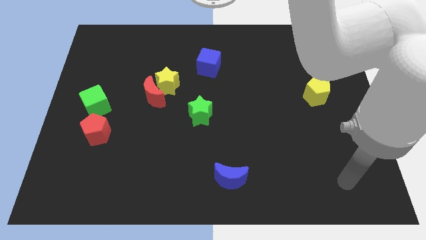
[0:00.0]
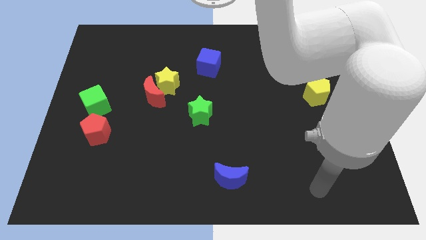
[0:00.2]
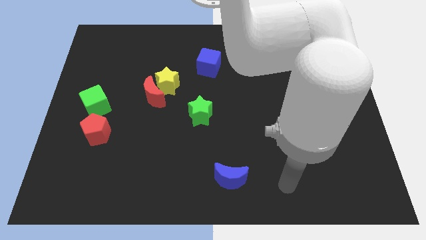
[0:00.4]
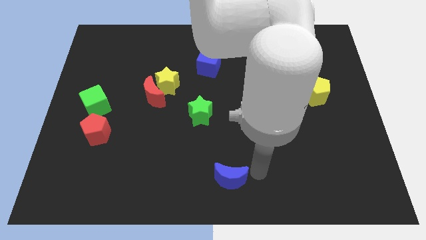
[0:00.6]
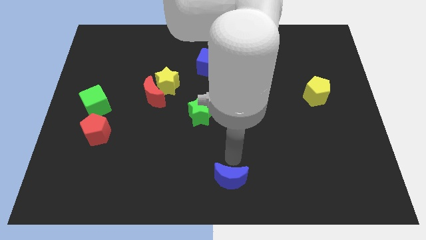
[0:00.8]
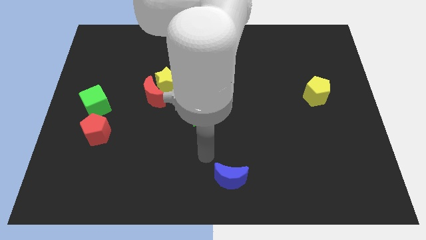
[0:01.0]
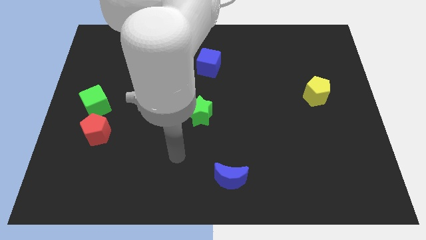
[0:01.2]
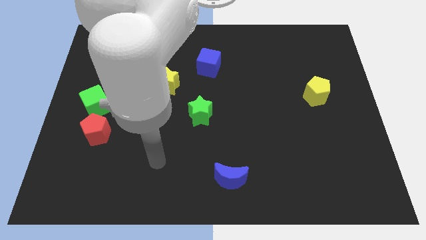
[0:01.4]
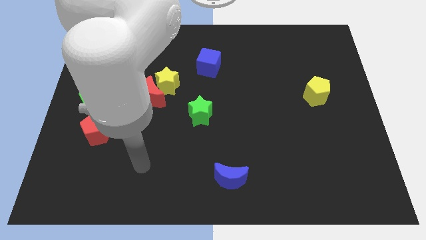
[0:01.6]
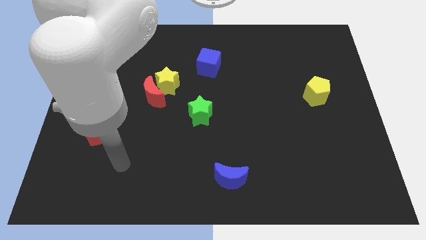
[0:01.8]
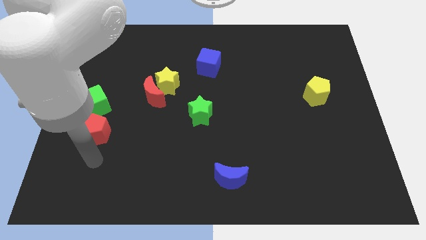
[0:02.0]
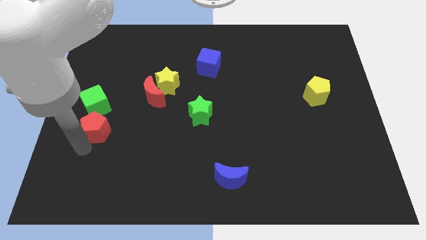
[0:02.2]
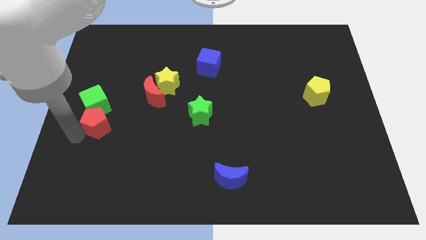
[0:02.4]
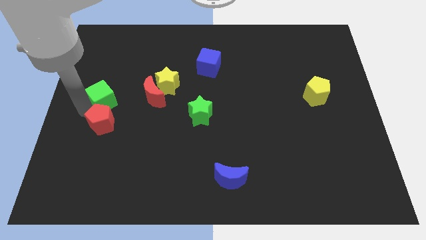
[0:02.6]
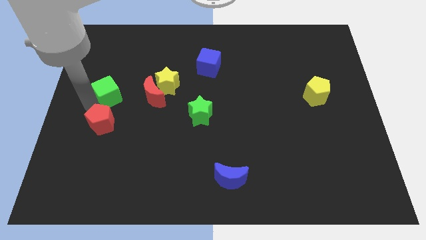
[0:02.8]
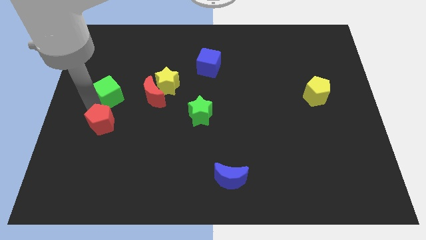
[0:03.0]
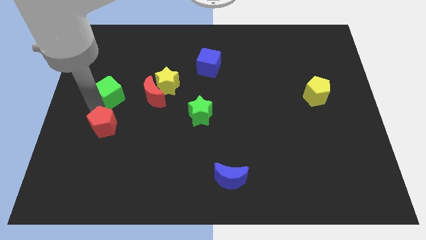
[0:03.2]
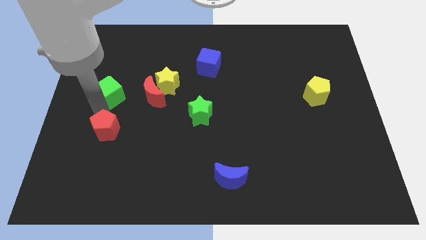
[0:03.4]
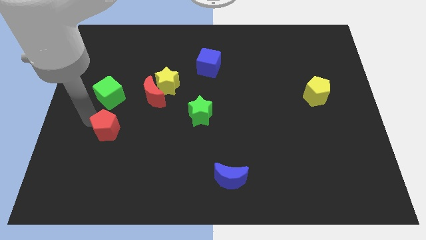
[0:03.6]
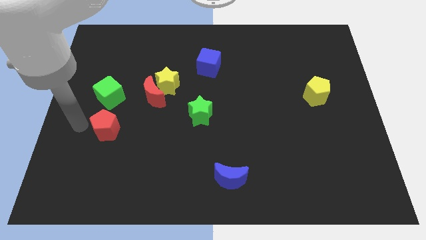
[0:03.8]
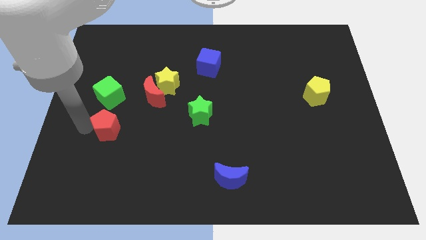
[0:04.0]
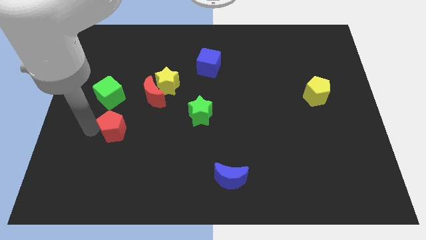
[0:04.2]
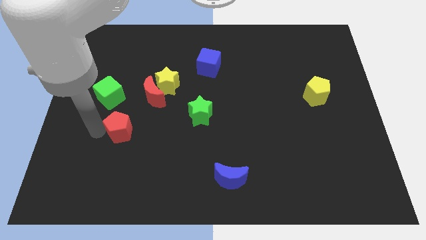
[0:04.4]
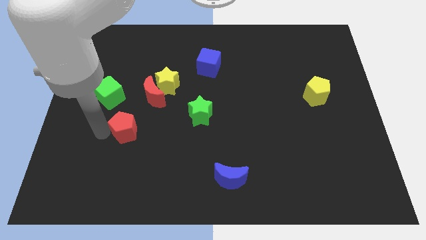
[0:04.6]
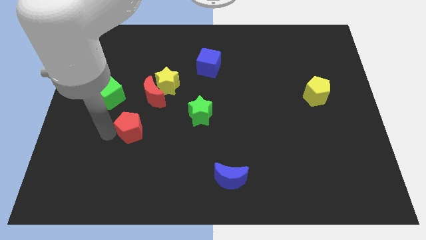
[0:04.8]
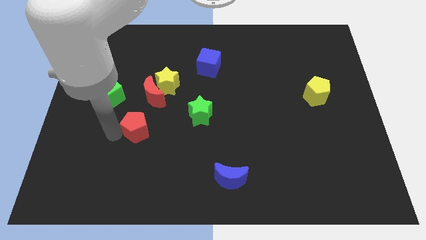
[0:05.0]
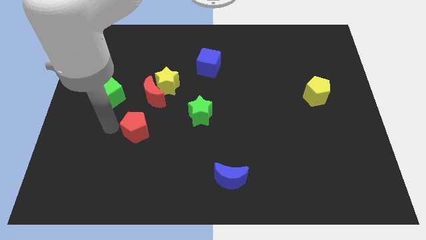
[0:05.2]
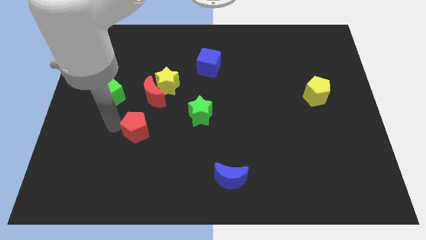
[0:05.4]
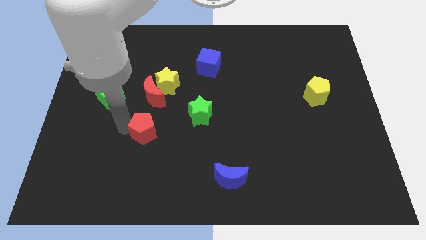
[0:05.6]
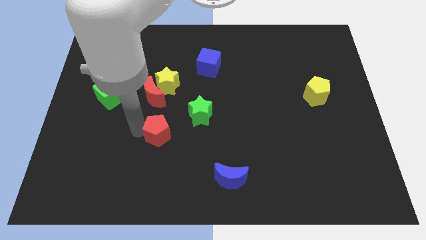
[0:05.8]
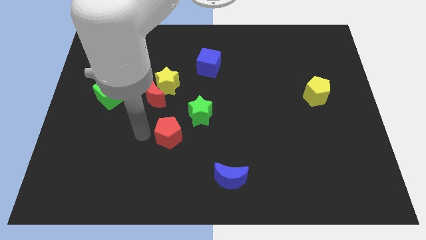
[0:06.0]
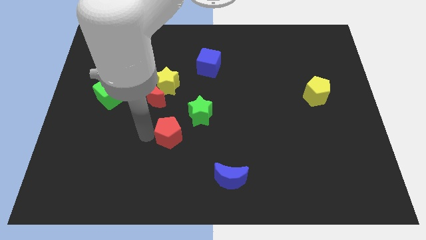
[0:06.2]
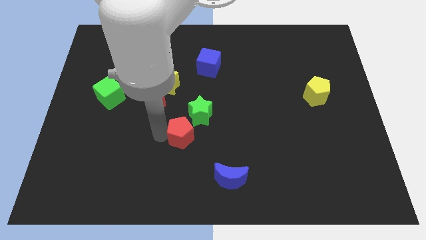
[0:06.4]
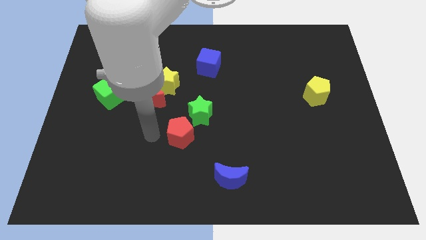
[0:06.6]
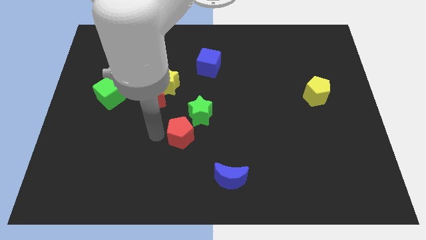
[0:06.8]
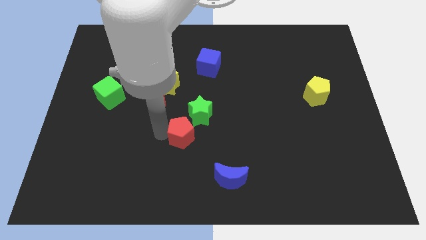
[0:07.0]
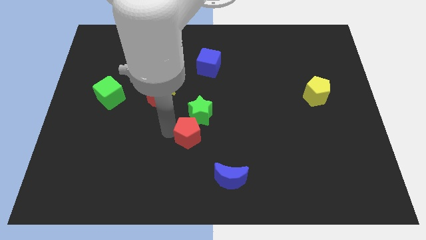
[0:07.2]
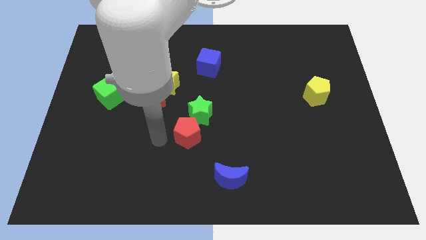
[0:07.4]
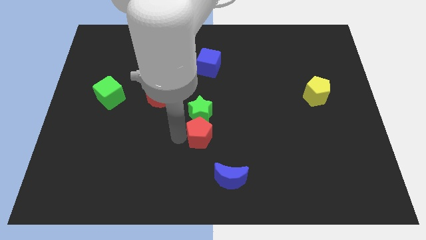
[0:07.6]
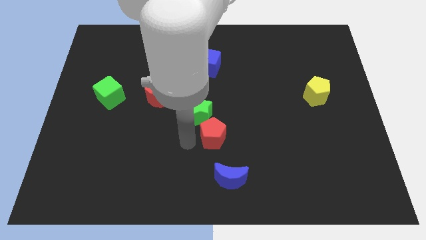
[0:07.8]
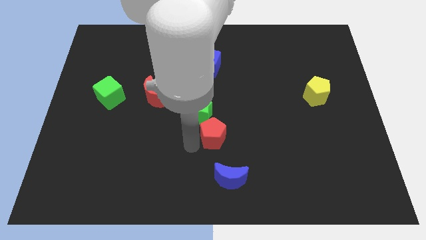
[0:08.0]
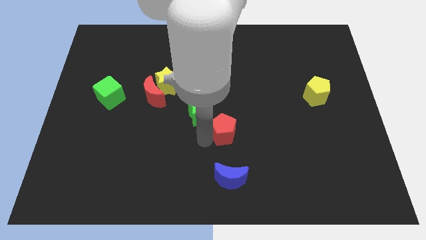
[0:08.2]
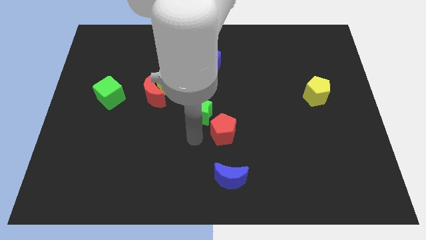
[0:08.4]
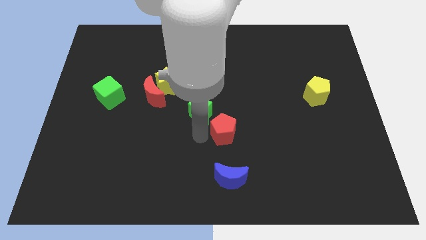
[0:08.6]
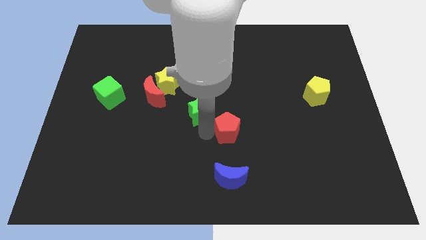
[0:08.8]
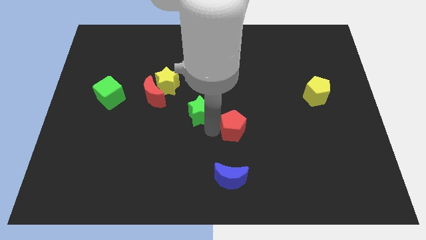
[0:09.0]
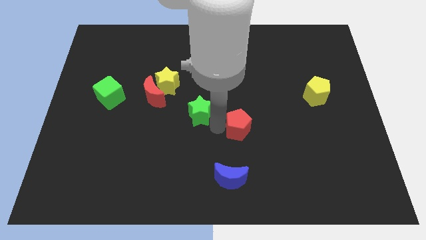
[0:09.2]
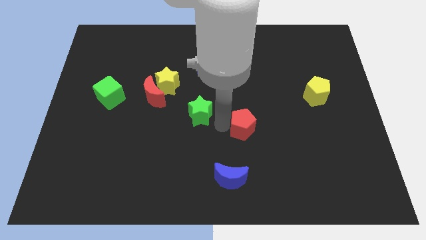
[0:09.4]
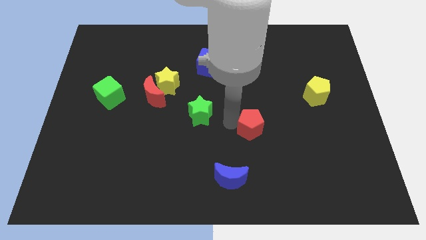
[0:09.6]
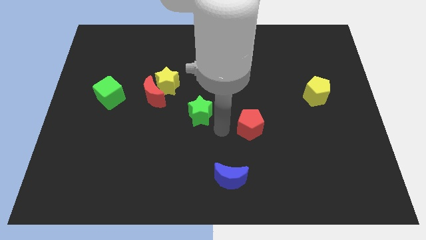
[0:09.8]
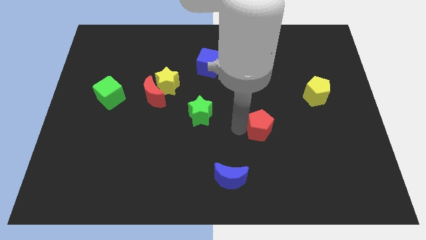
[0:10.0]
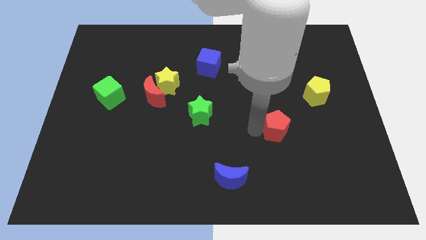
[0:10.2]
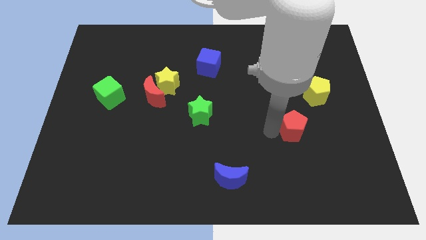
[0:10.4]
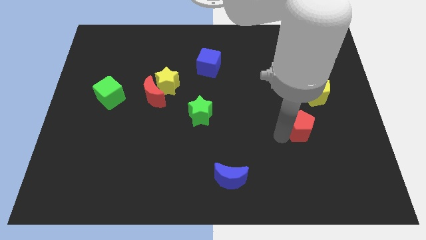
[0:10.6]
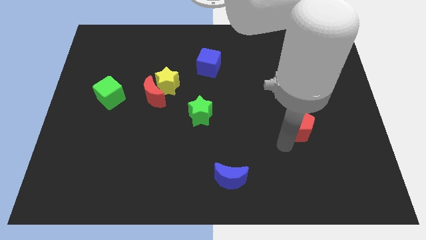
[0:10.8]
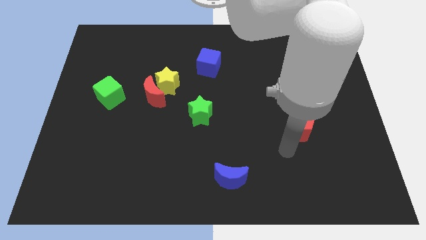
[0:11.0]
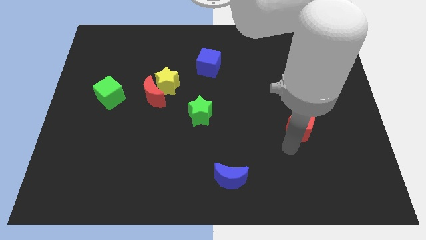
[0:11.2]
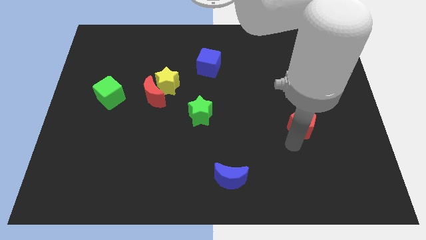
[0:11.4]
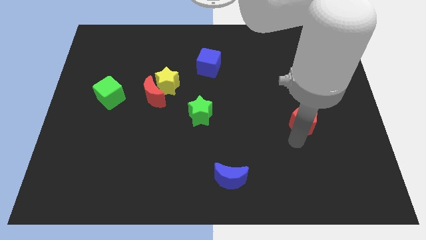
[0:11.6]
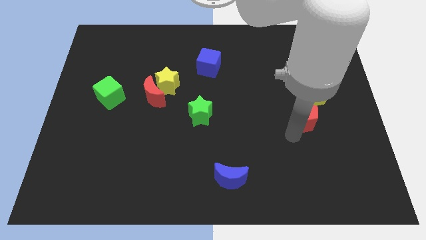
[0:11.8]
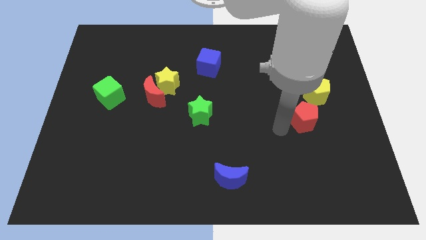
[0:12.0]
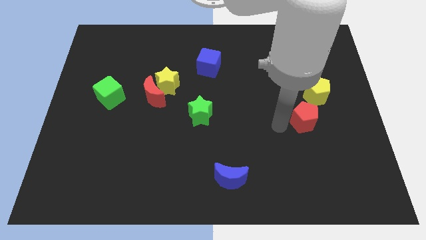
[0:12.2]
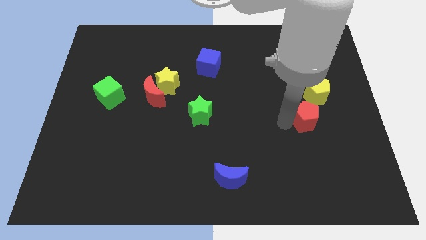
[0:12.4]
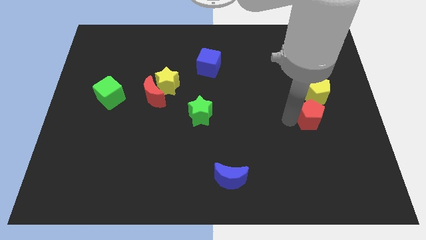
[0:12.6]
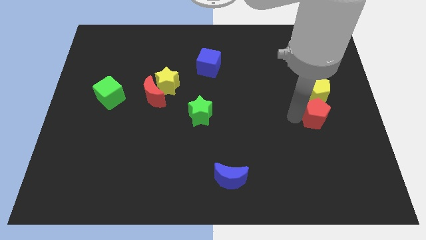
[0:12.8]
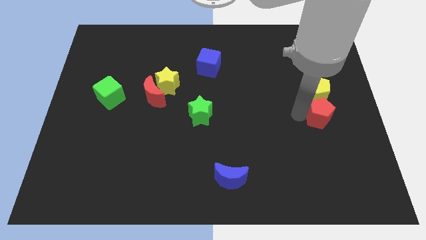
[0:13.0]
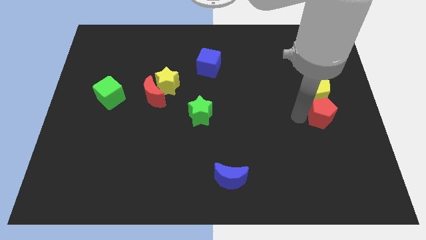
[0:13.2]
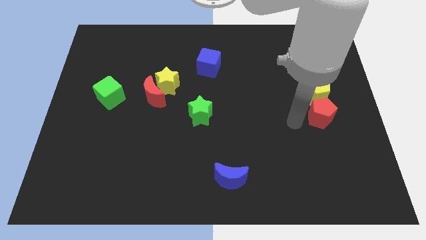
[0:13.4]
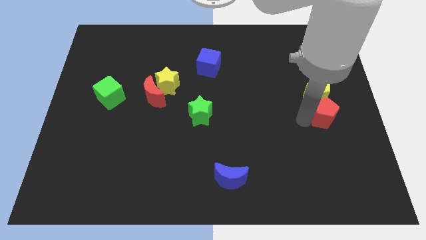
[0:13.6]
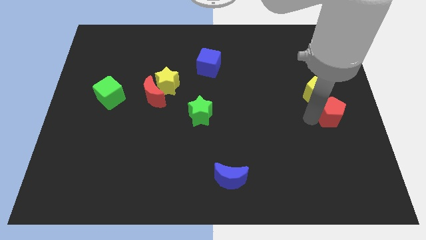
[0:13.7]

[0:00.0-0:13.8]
put the red pentagon to the right side of the board

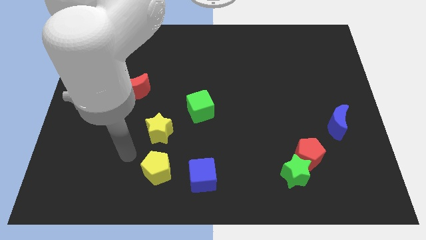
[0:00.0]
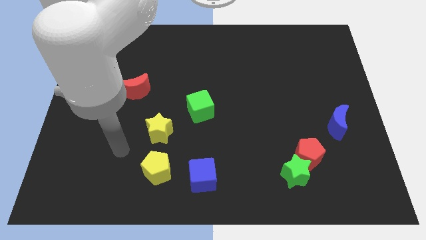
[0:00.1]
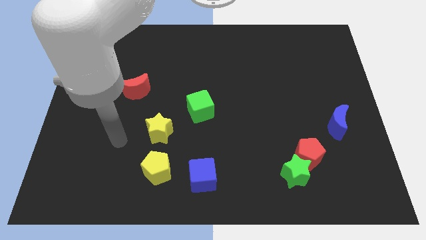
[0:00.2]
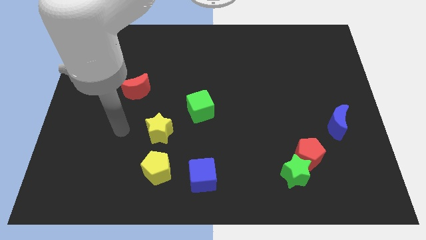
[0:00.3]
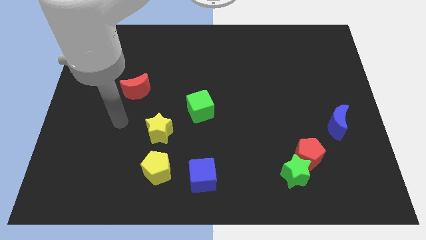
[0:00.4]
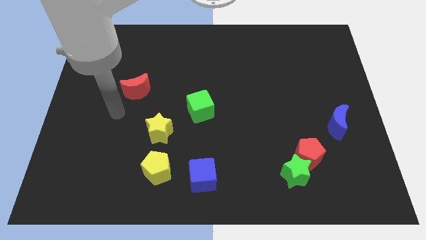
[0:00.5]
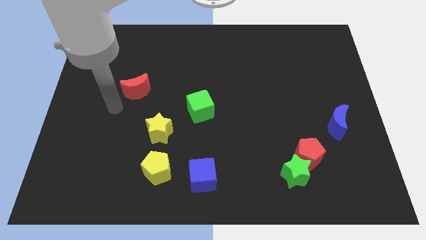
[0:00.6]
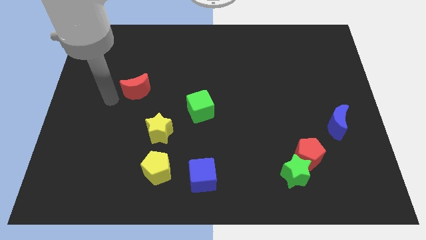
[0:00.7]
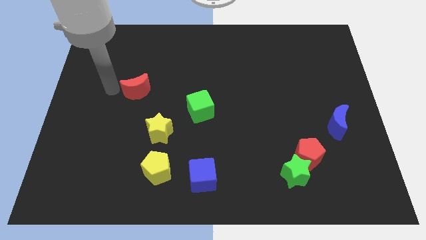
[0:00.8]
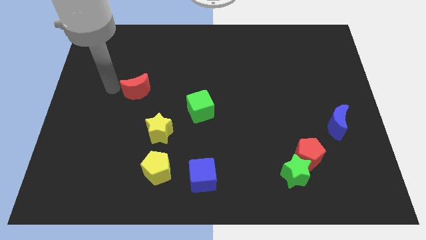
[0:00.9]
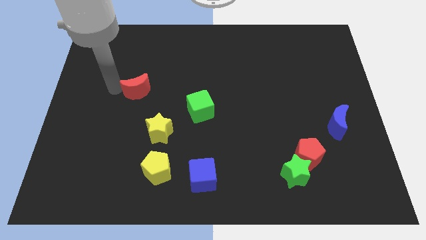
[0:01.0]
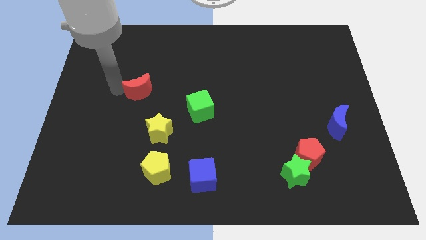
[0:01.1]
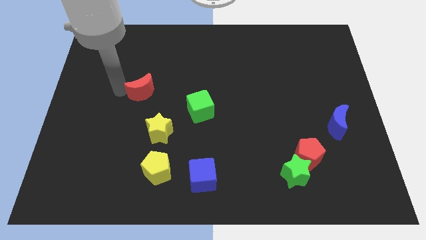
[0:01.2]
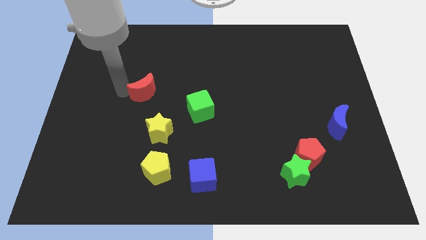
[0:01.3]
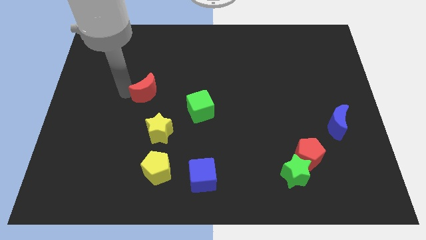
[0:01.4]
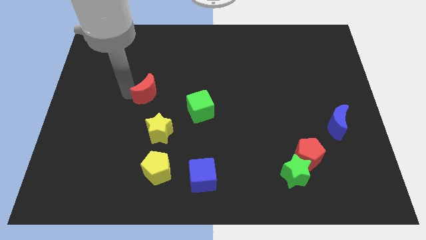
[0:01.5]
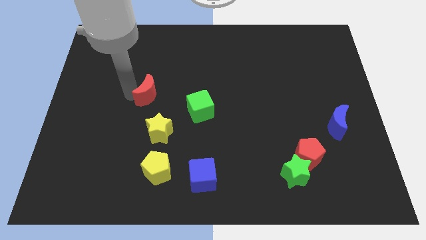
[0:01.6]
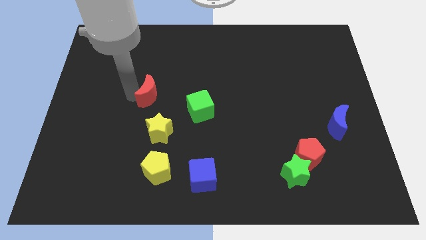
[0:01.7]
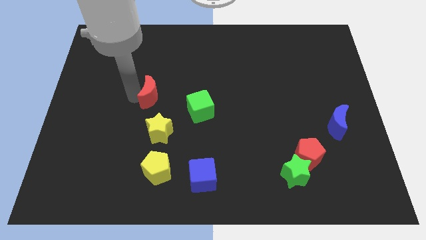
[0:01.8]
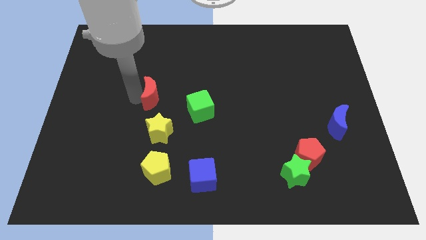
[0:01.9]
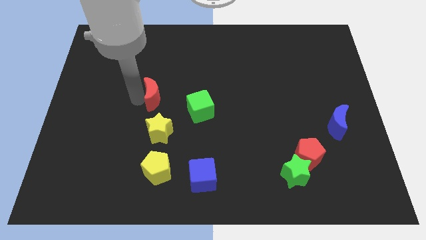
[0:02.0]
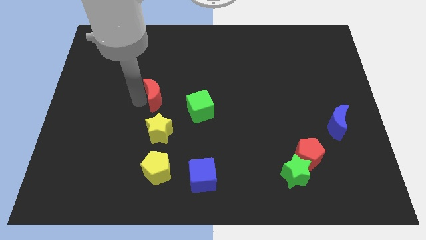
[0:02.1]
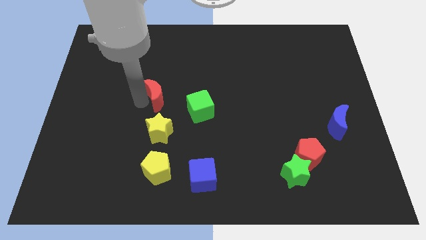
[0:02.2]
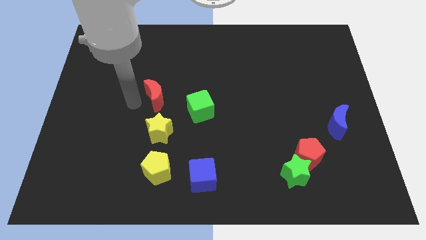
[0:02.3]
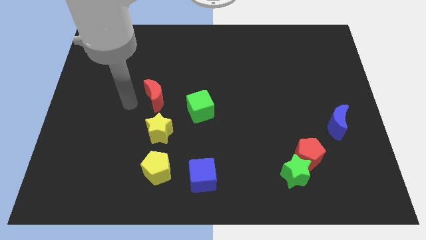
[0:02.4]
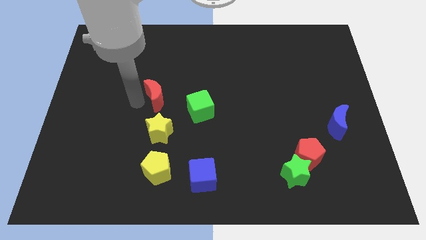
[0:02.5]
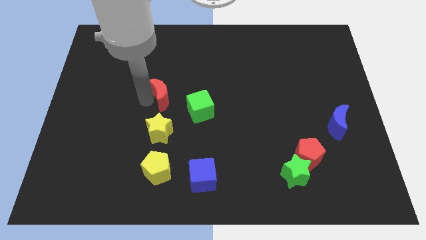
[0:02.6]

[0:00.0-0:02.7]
push the red moon to the middle of the board
